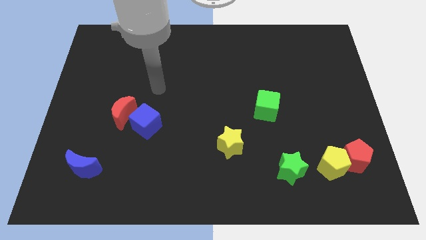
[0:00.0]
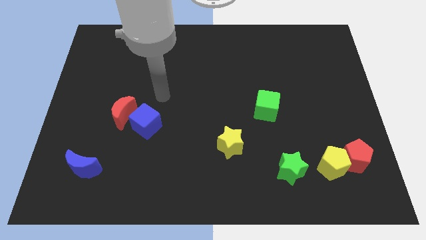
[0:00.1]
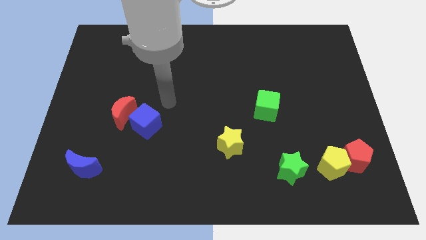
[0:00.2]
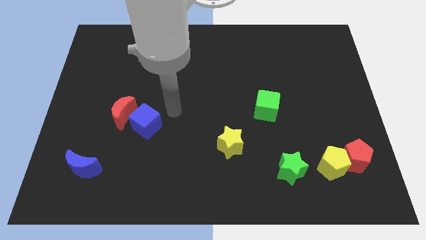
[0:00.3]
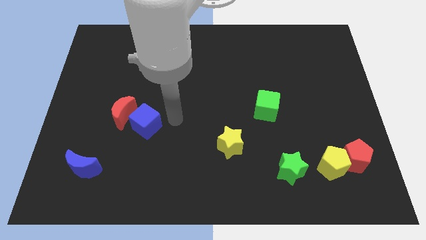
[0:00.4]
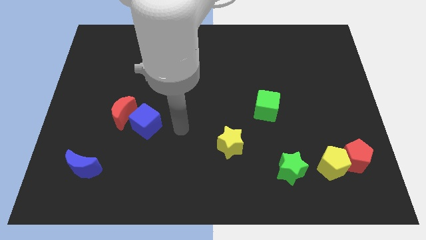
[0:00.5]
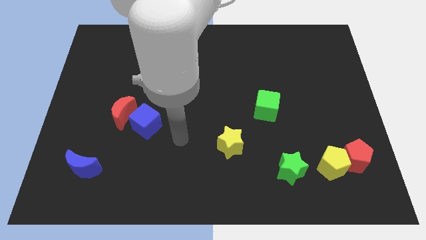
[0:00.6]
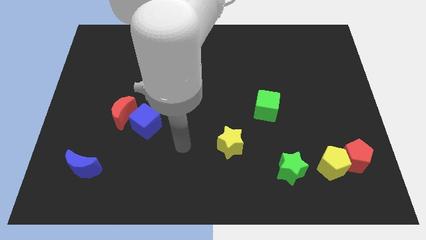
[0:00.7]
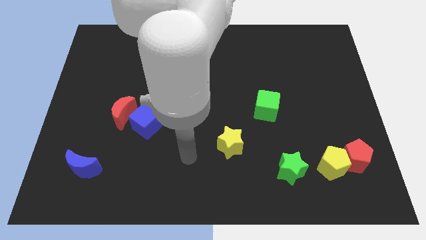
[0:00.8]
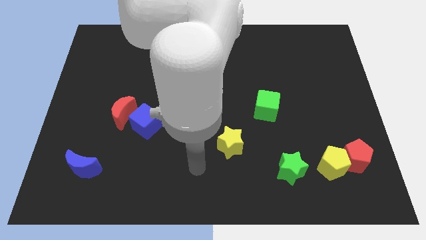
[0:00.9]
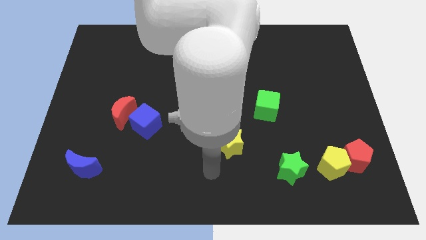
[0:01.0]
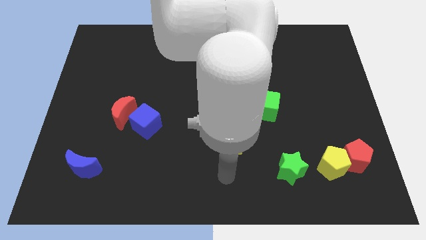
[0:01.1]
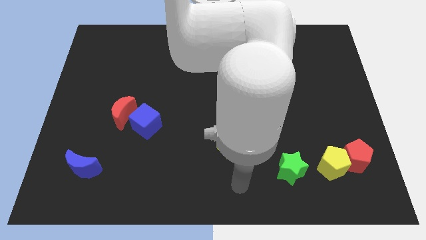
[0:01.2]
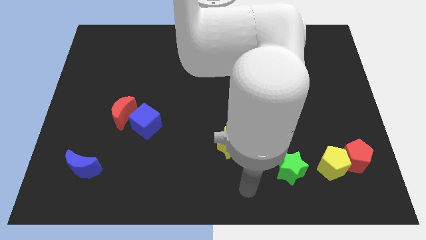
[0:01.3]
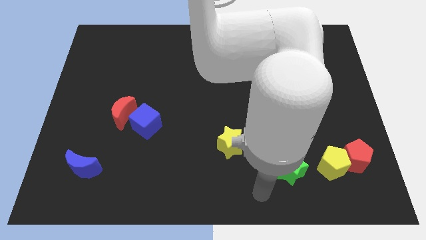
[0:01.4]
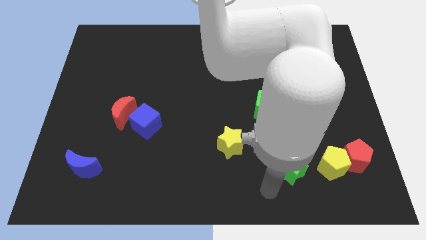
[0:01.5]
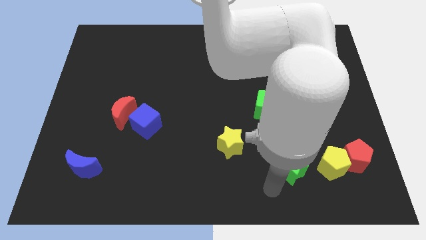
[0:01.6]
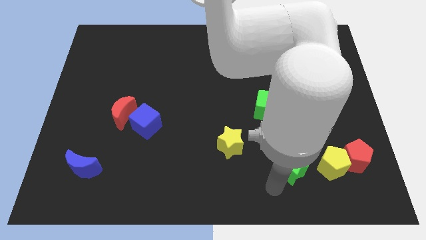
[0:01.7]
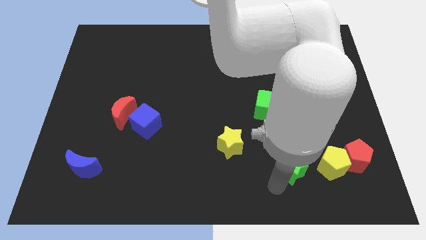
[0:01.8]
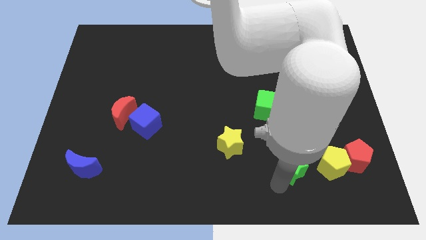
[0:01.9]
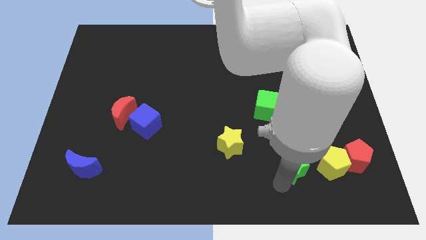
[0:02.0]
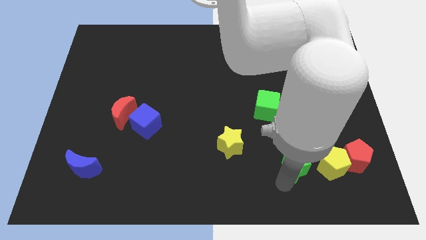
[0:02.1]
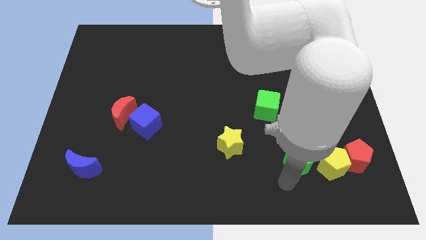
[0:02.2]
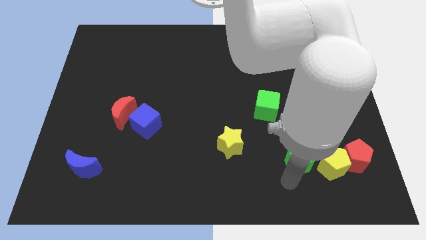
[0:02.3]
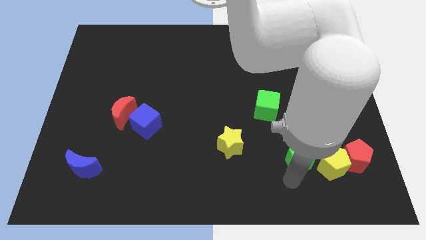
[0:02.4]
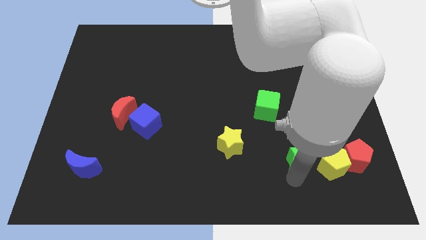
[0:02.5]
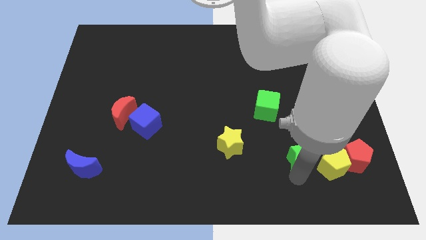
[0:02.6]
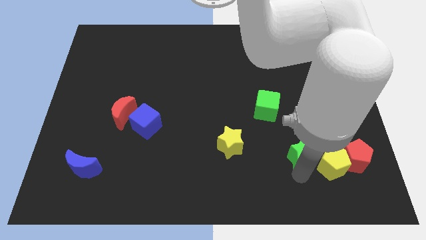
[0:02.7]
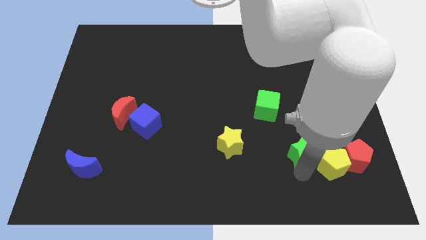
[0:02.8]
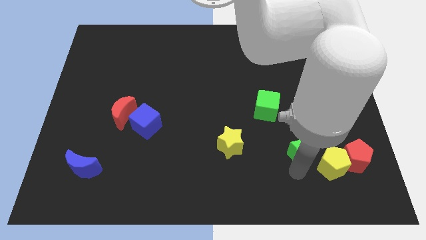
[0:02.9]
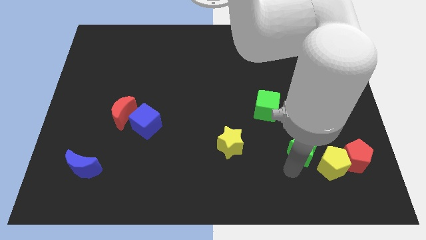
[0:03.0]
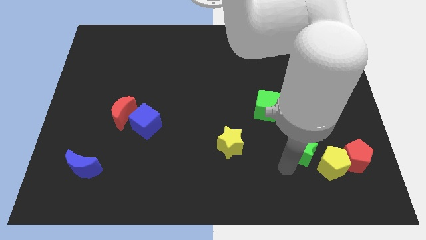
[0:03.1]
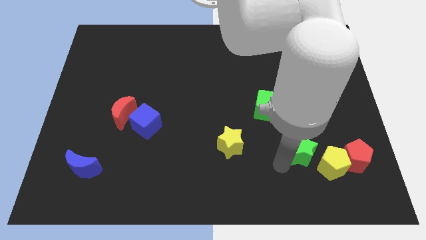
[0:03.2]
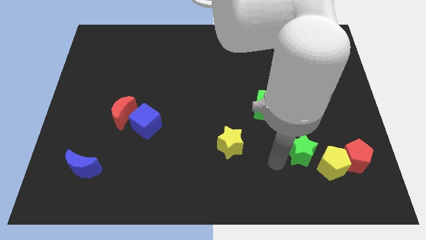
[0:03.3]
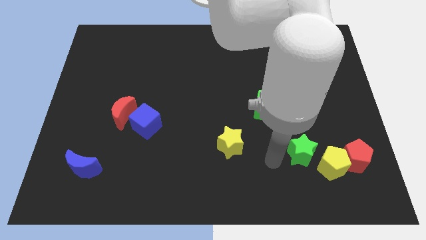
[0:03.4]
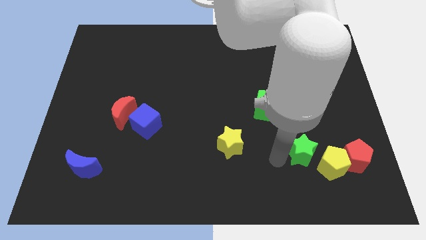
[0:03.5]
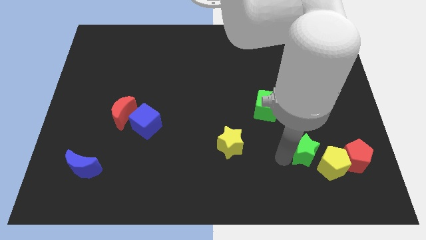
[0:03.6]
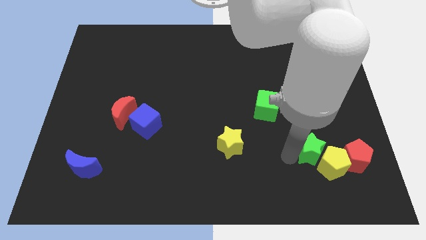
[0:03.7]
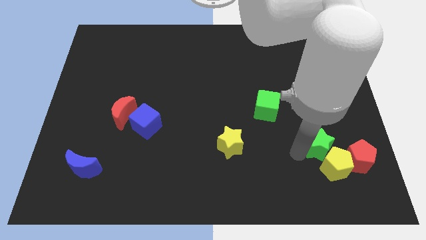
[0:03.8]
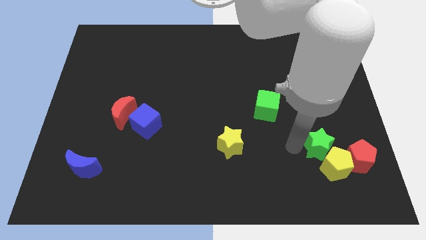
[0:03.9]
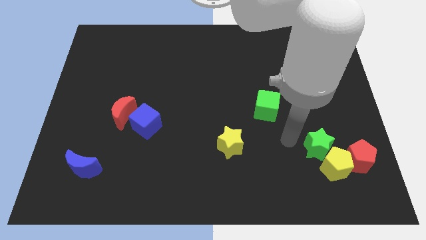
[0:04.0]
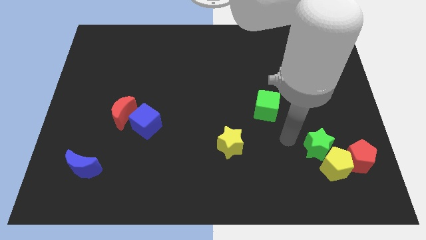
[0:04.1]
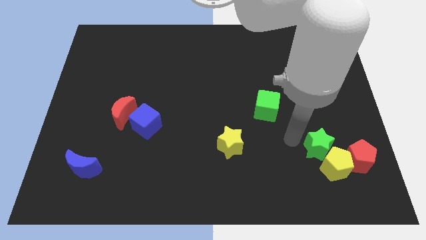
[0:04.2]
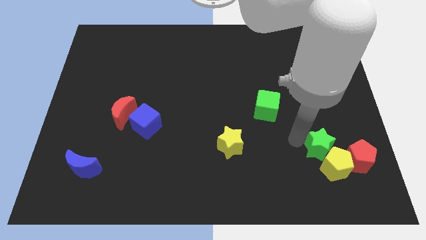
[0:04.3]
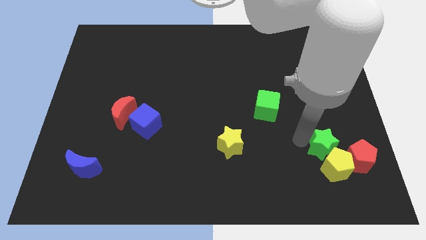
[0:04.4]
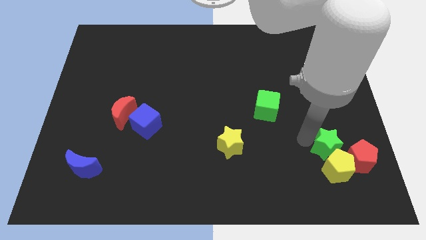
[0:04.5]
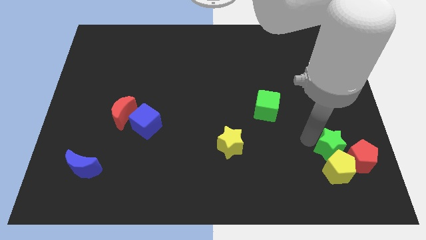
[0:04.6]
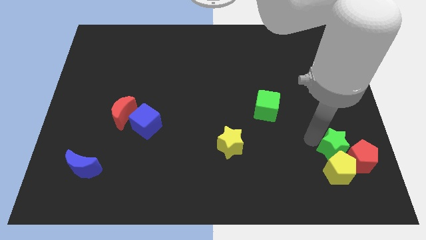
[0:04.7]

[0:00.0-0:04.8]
push the green star next to the red pentagon

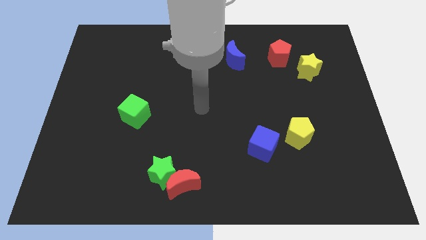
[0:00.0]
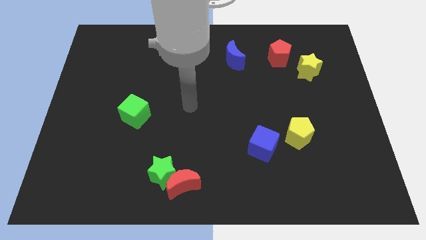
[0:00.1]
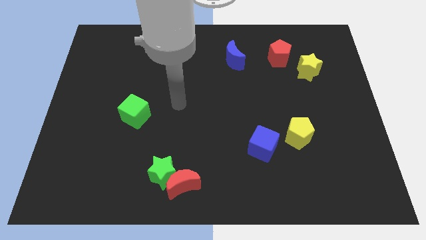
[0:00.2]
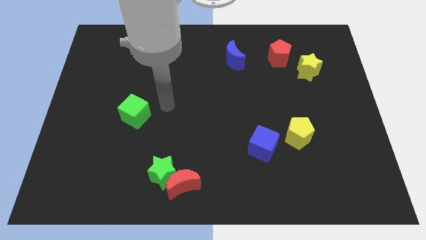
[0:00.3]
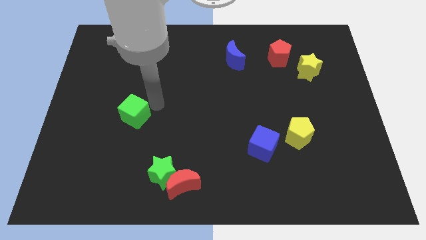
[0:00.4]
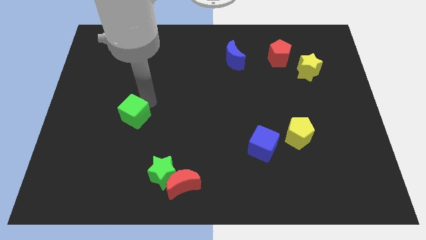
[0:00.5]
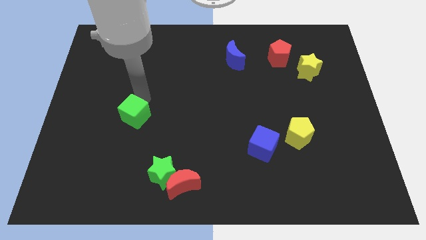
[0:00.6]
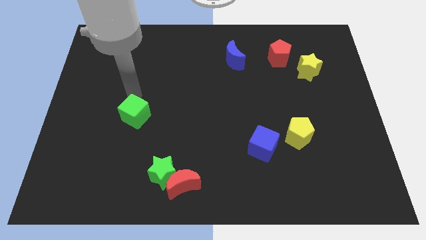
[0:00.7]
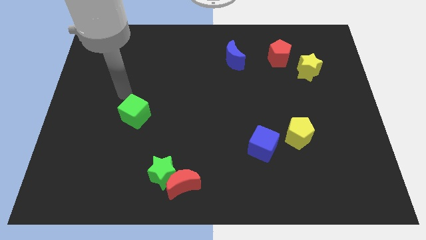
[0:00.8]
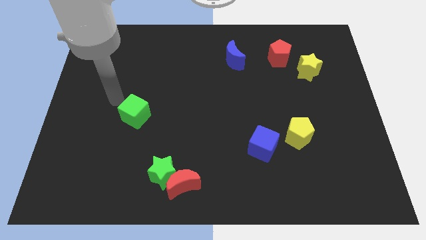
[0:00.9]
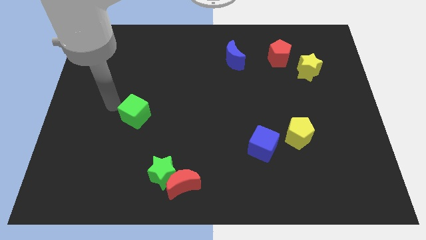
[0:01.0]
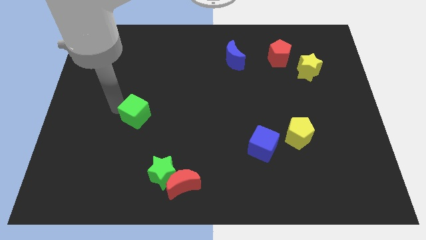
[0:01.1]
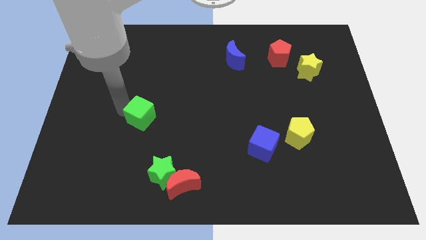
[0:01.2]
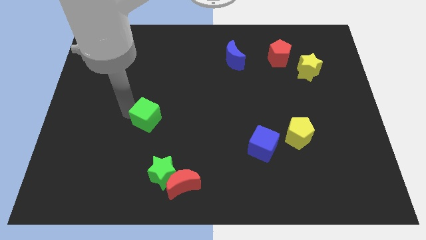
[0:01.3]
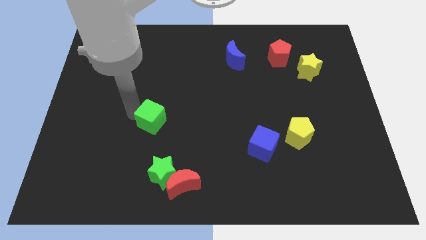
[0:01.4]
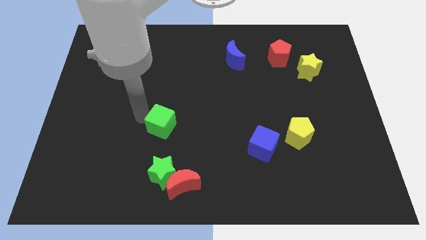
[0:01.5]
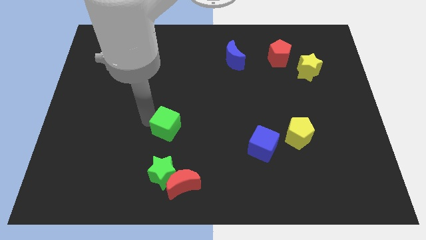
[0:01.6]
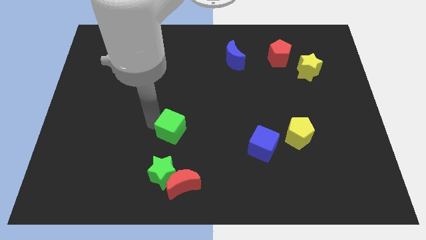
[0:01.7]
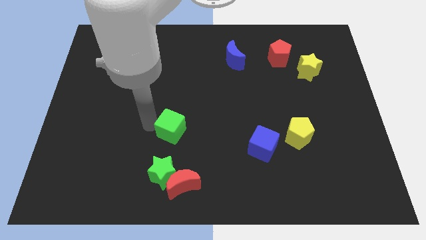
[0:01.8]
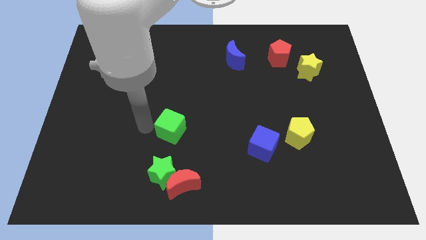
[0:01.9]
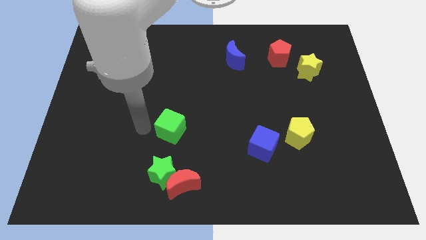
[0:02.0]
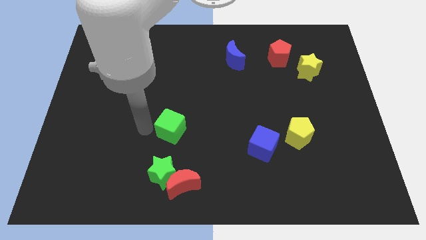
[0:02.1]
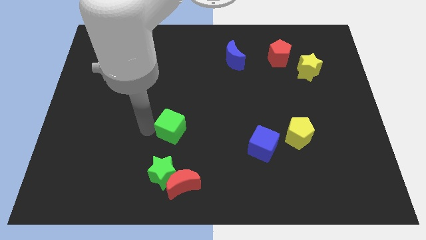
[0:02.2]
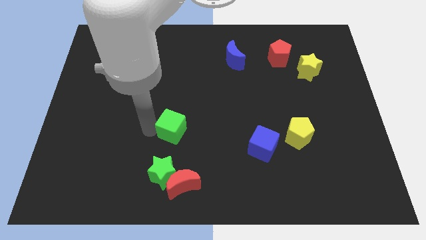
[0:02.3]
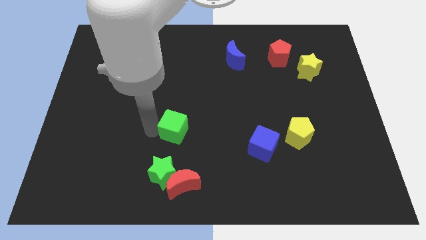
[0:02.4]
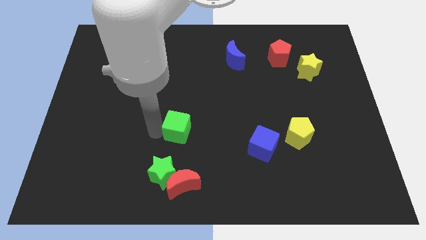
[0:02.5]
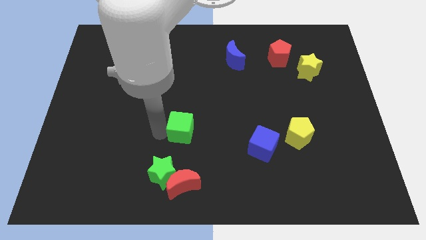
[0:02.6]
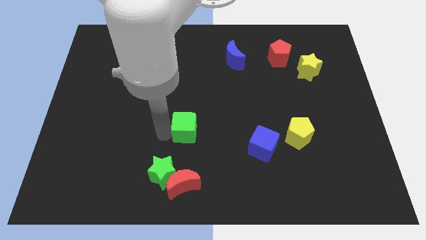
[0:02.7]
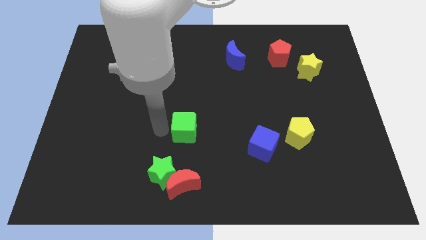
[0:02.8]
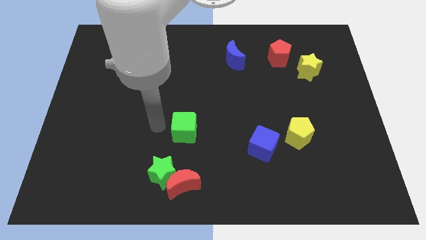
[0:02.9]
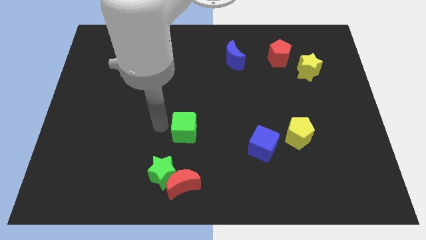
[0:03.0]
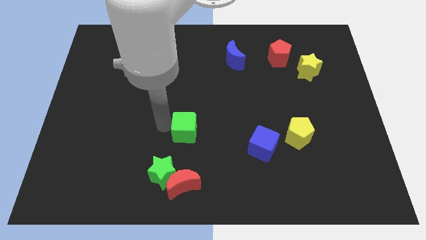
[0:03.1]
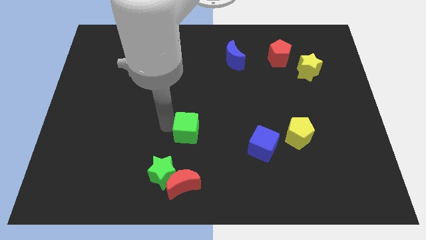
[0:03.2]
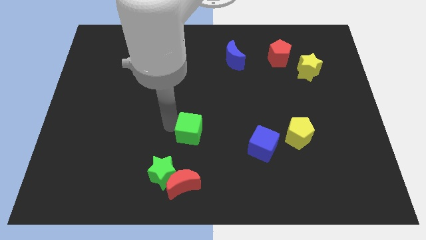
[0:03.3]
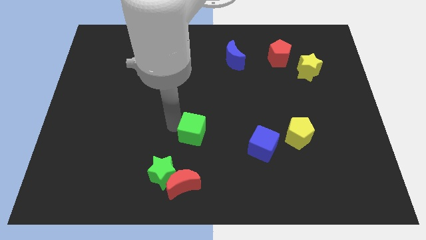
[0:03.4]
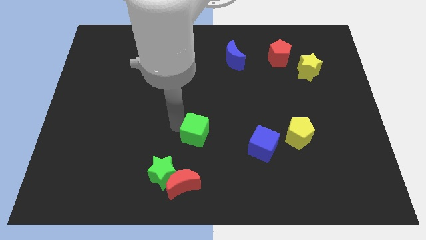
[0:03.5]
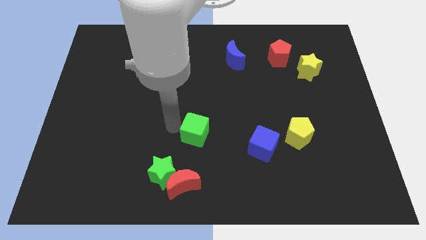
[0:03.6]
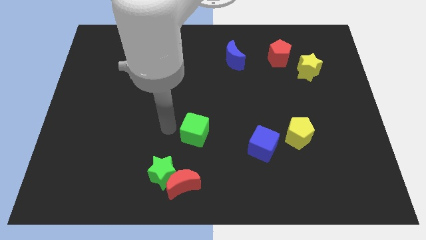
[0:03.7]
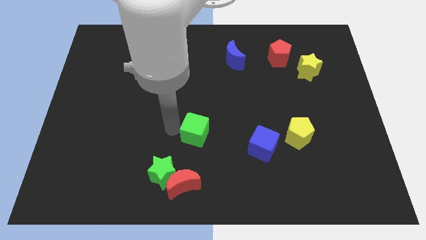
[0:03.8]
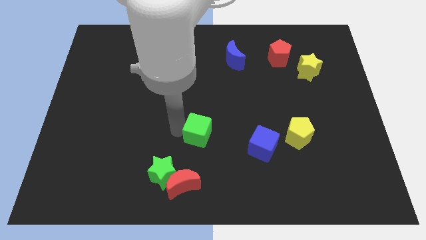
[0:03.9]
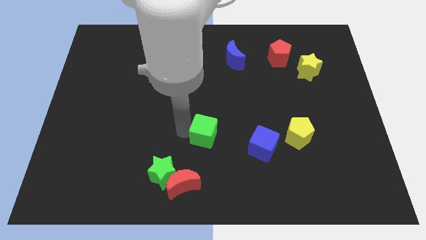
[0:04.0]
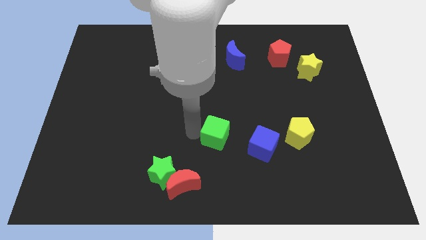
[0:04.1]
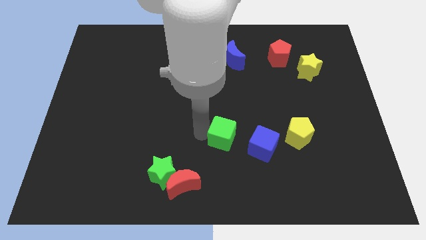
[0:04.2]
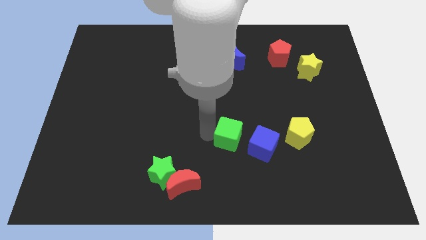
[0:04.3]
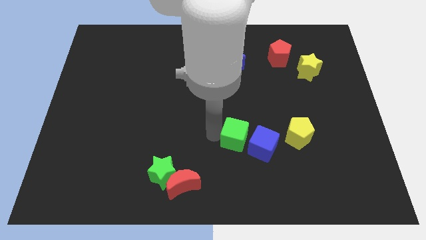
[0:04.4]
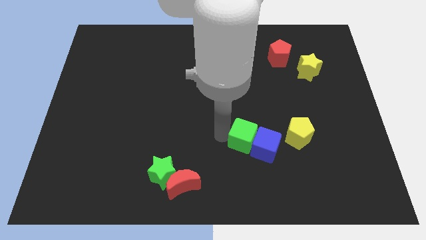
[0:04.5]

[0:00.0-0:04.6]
move the green cube next to the blue cube
